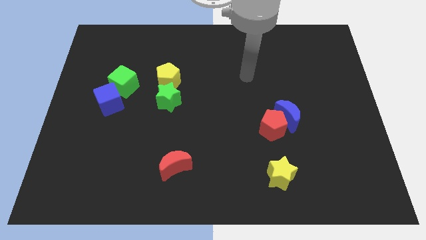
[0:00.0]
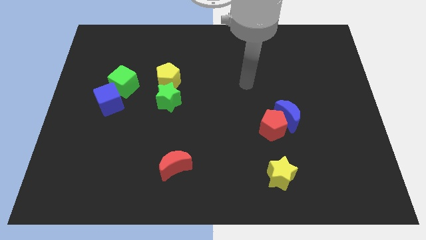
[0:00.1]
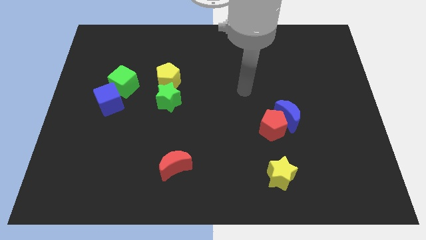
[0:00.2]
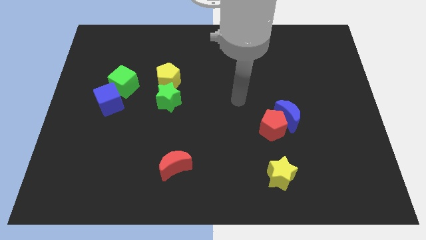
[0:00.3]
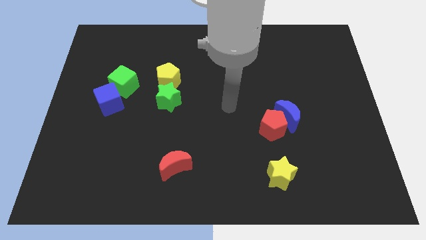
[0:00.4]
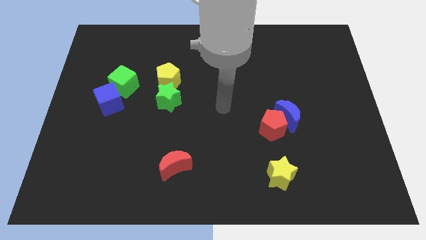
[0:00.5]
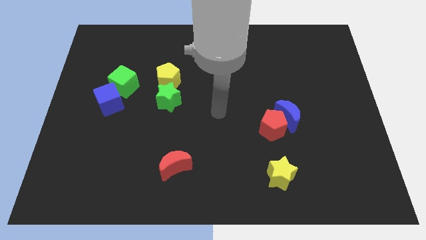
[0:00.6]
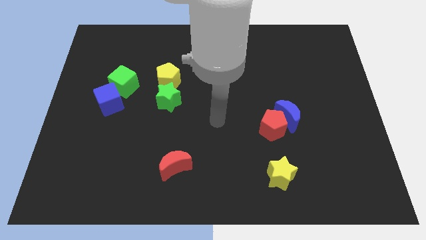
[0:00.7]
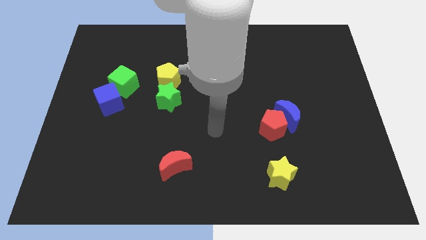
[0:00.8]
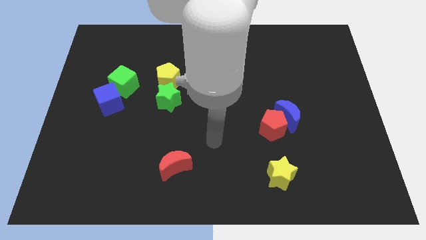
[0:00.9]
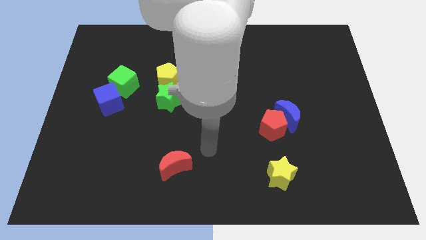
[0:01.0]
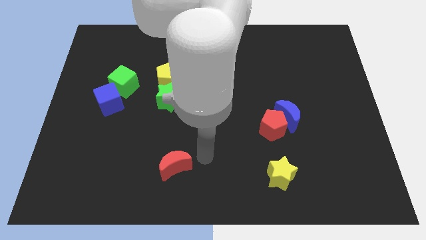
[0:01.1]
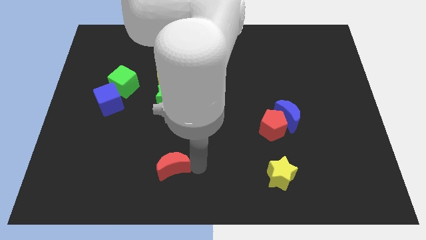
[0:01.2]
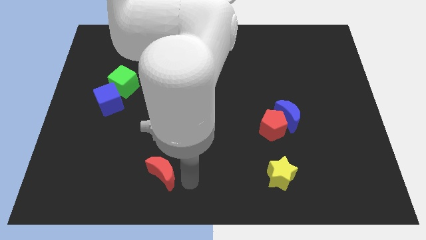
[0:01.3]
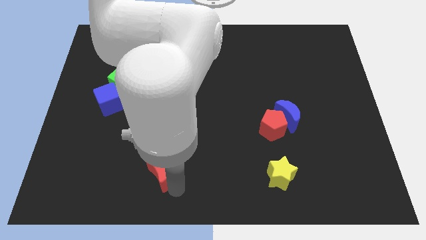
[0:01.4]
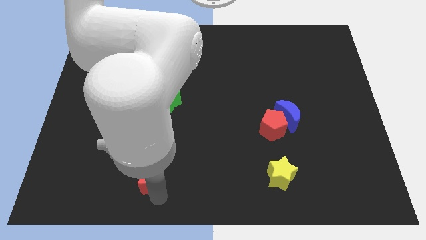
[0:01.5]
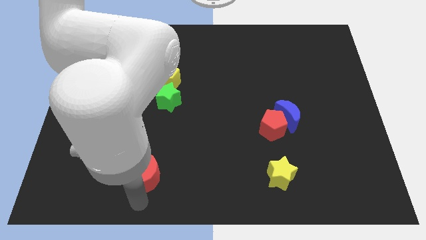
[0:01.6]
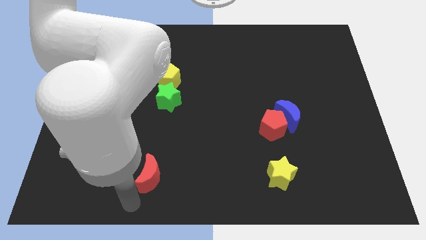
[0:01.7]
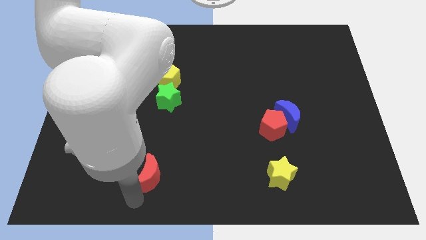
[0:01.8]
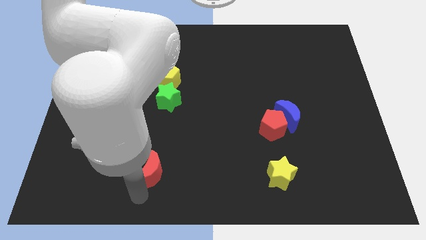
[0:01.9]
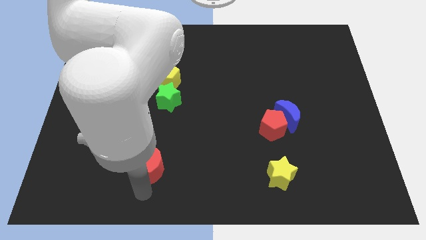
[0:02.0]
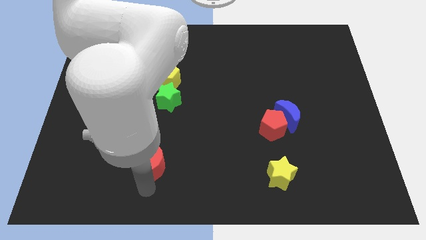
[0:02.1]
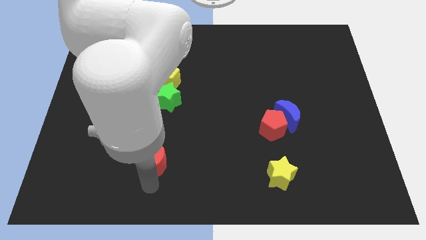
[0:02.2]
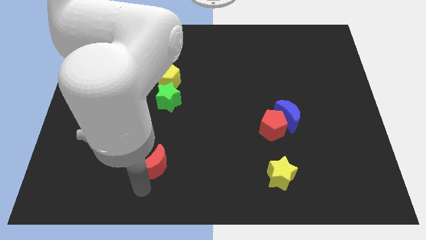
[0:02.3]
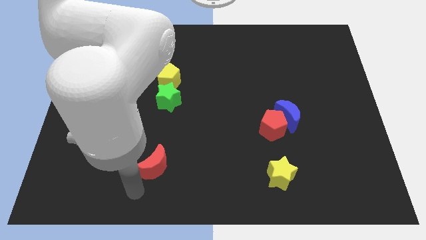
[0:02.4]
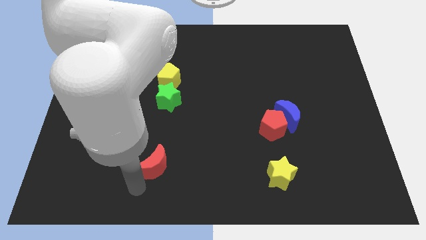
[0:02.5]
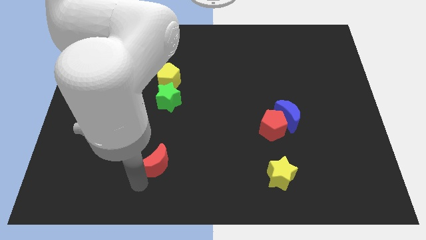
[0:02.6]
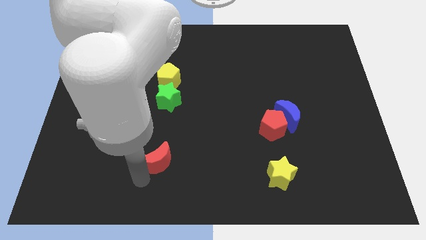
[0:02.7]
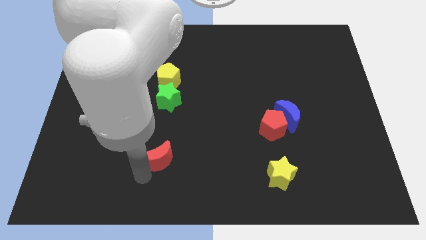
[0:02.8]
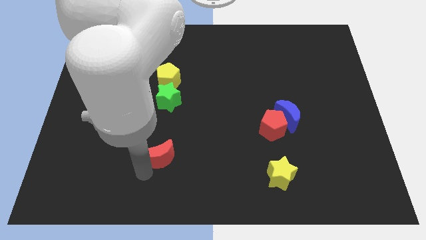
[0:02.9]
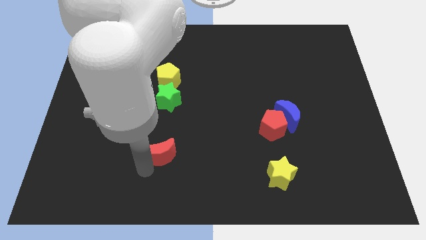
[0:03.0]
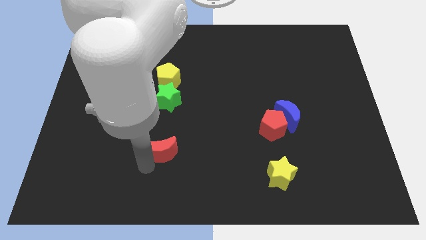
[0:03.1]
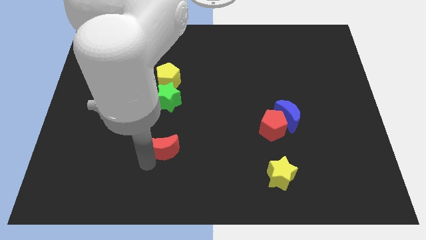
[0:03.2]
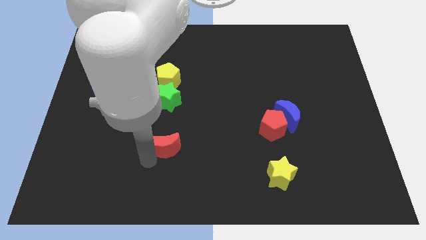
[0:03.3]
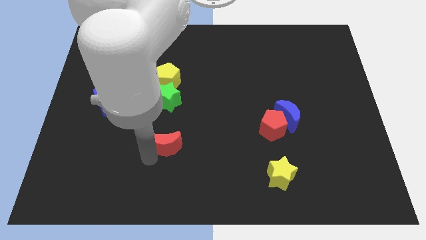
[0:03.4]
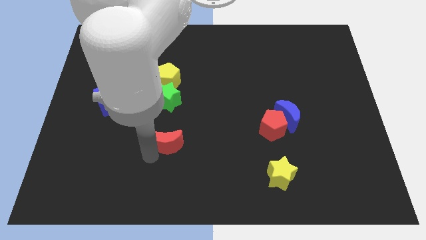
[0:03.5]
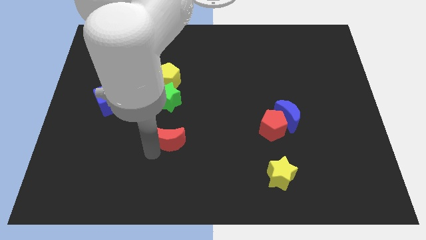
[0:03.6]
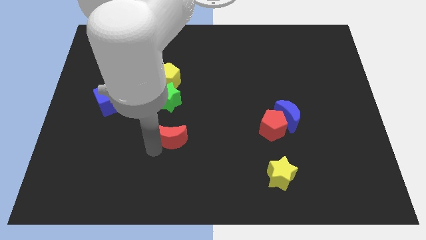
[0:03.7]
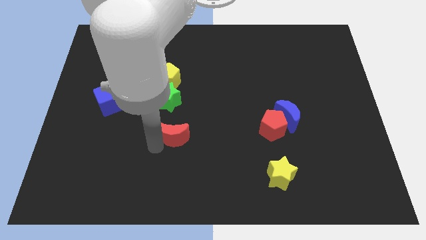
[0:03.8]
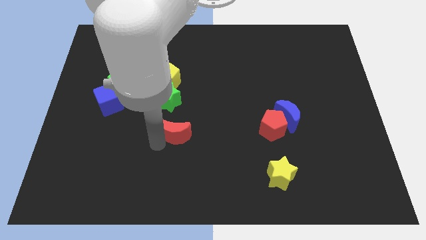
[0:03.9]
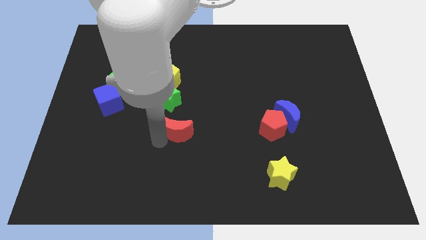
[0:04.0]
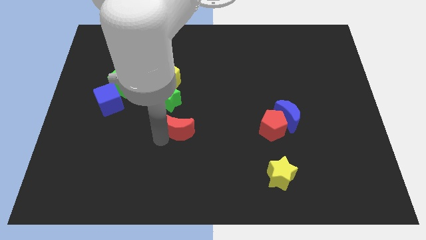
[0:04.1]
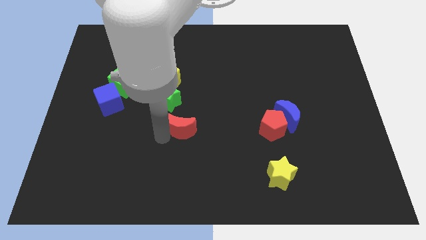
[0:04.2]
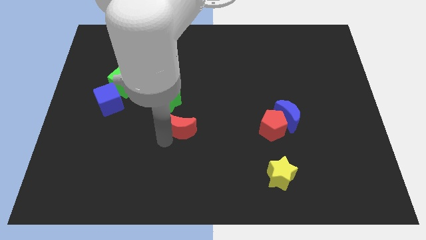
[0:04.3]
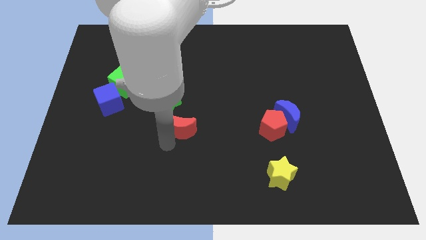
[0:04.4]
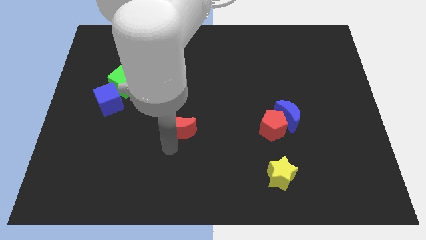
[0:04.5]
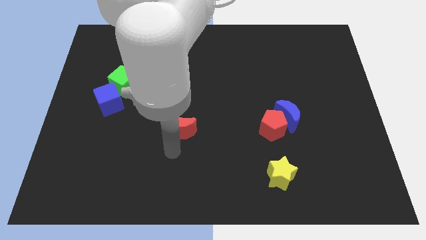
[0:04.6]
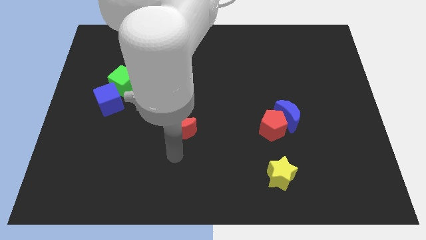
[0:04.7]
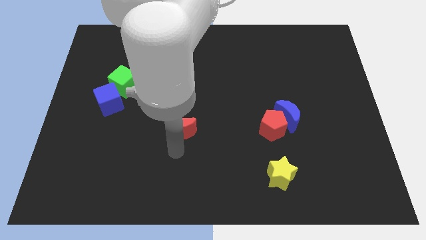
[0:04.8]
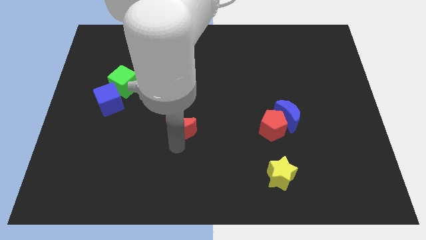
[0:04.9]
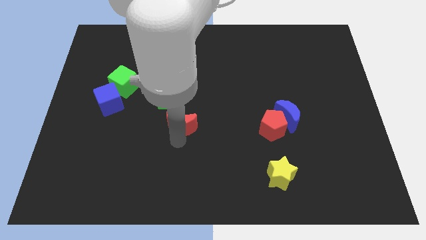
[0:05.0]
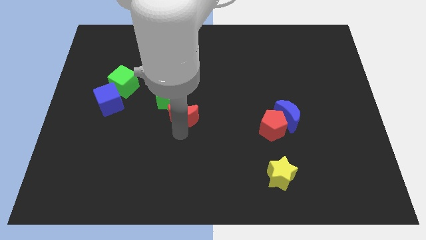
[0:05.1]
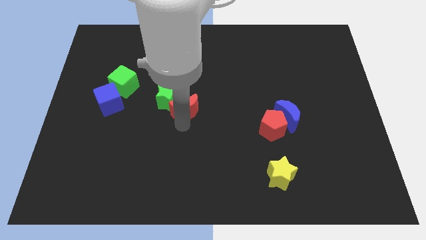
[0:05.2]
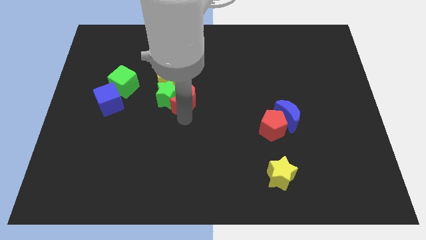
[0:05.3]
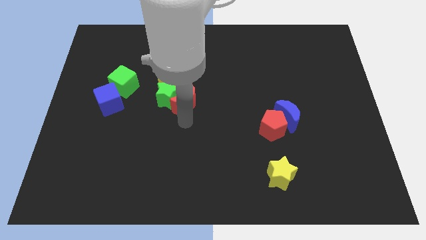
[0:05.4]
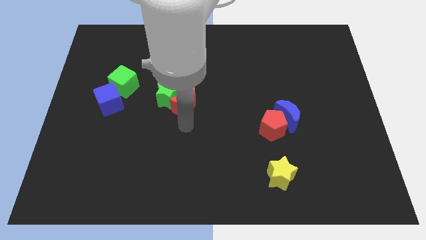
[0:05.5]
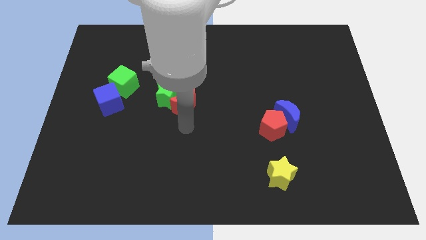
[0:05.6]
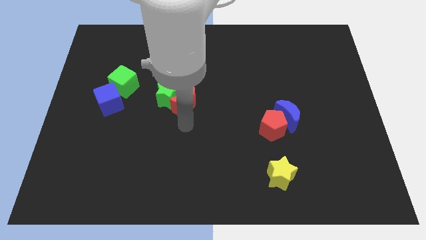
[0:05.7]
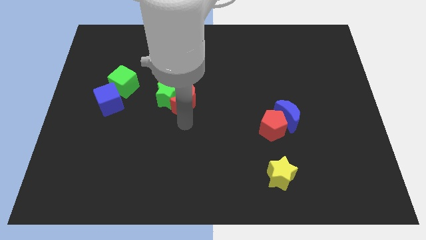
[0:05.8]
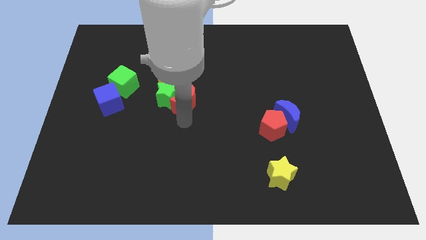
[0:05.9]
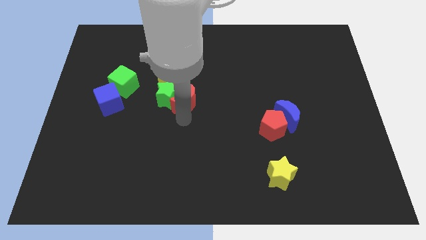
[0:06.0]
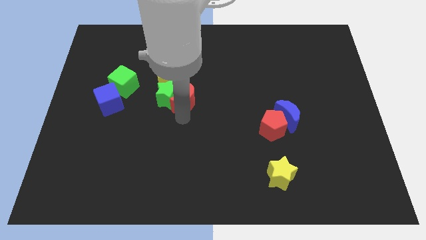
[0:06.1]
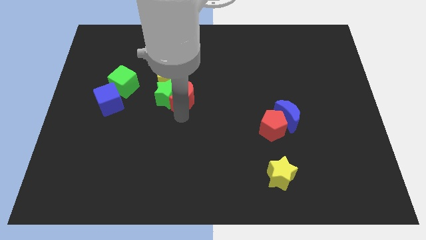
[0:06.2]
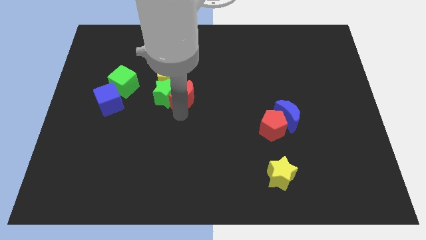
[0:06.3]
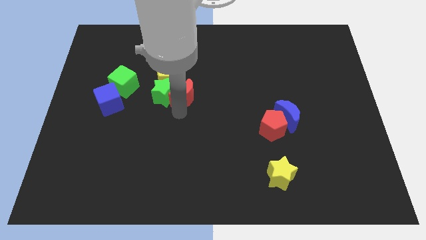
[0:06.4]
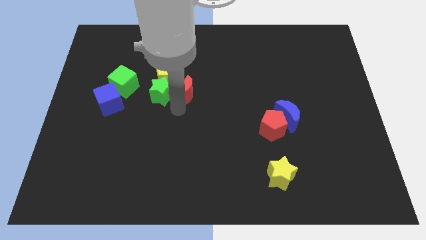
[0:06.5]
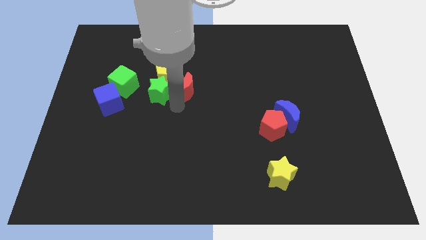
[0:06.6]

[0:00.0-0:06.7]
push the red moon up

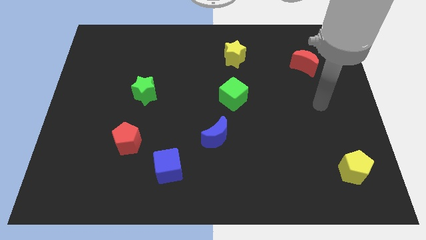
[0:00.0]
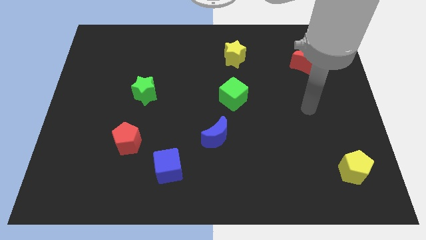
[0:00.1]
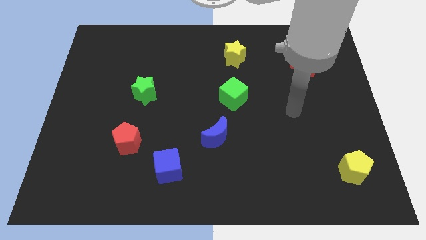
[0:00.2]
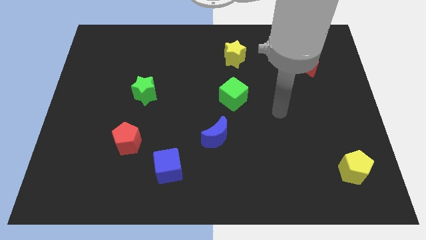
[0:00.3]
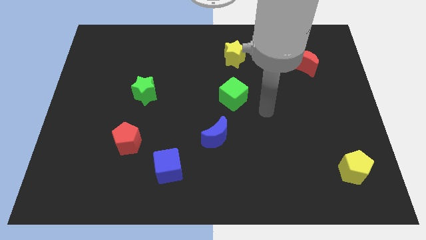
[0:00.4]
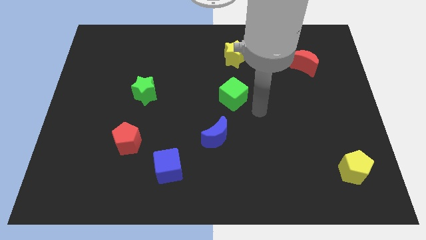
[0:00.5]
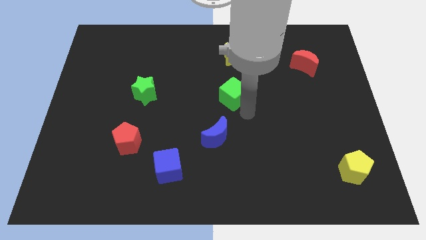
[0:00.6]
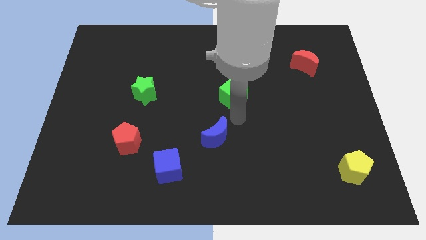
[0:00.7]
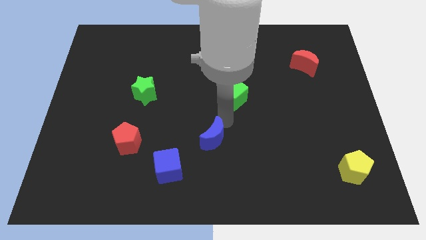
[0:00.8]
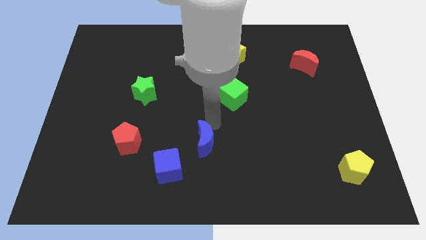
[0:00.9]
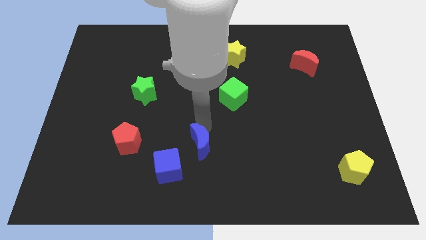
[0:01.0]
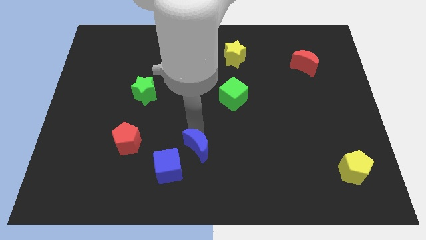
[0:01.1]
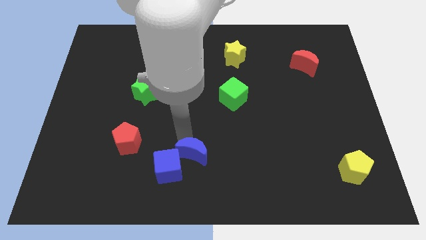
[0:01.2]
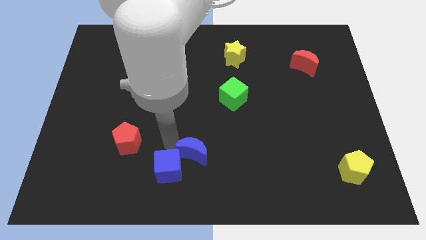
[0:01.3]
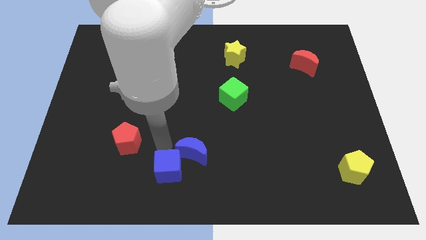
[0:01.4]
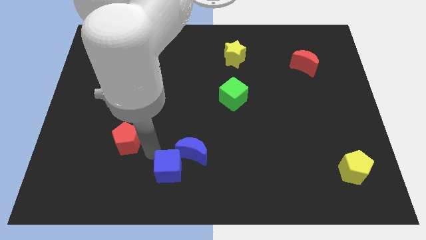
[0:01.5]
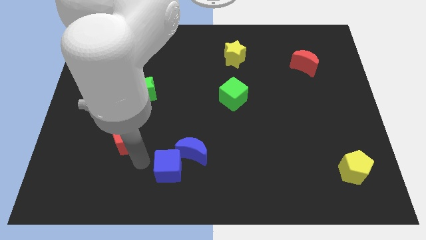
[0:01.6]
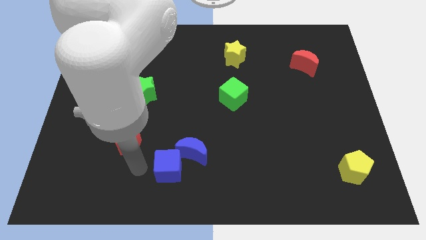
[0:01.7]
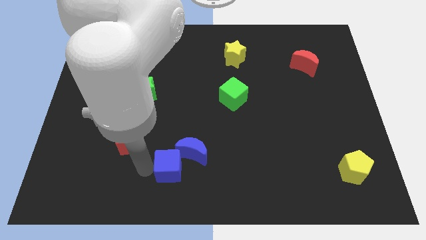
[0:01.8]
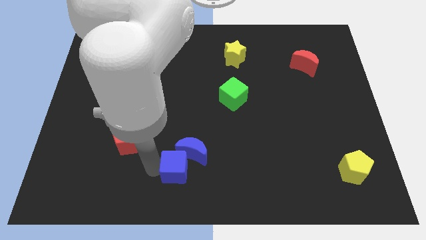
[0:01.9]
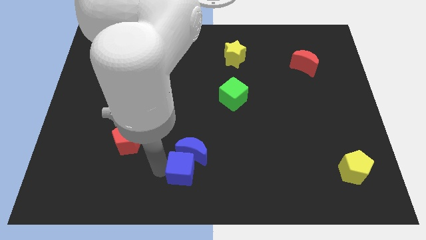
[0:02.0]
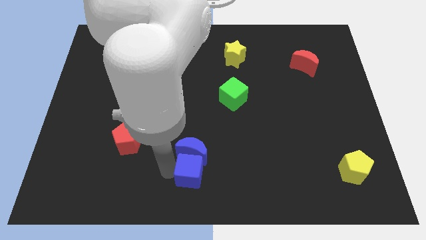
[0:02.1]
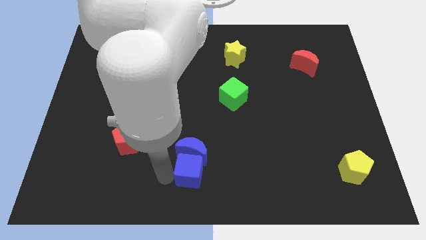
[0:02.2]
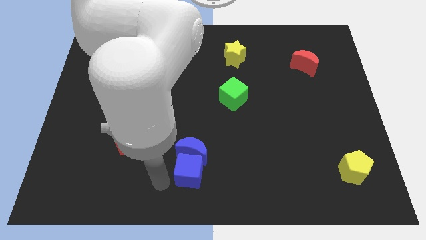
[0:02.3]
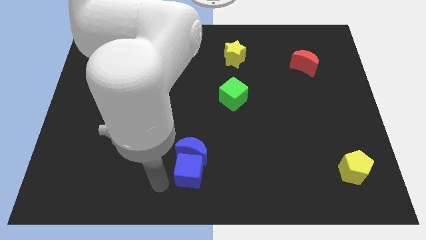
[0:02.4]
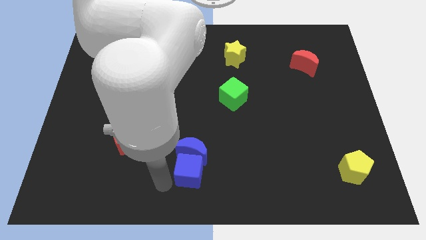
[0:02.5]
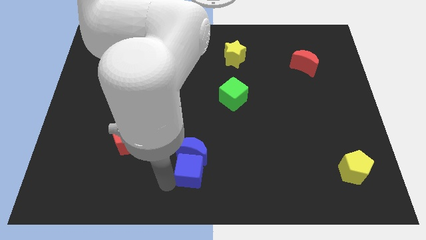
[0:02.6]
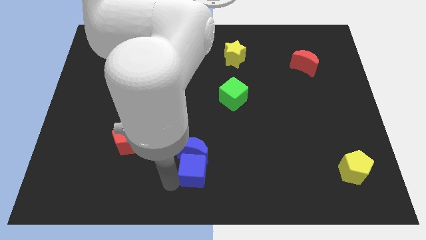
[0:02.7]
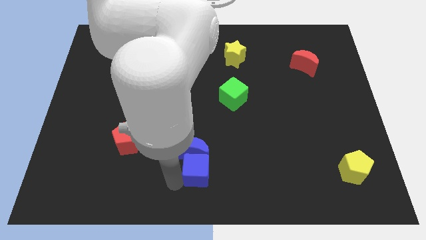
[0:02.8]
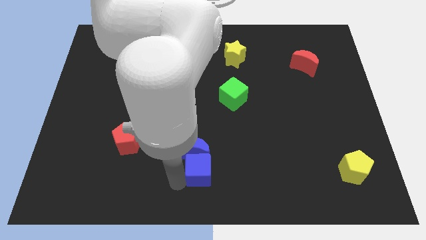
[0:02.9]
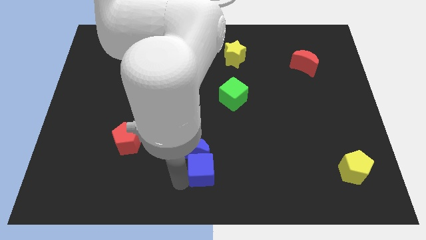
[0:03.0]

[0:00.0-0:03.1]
slightly slide the blue cube right
